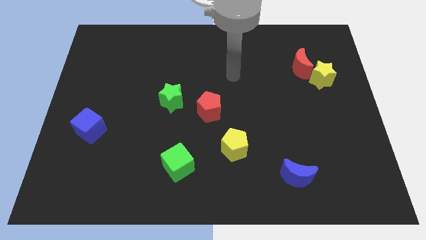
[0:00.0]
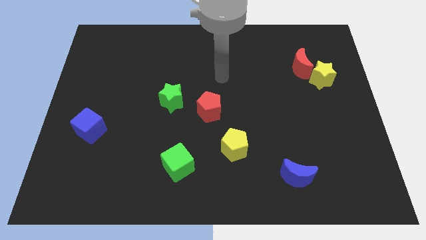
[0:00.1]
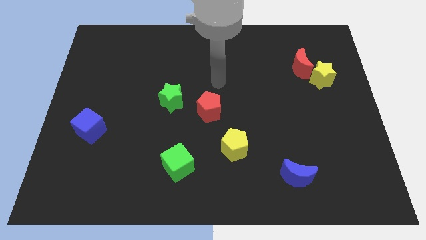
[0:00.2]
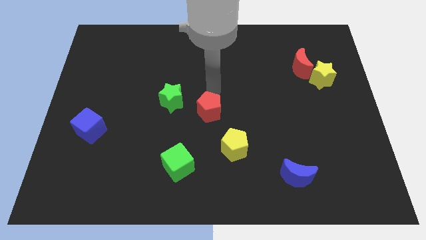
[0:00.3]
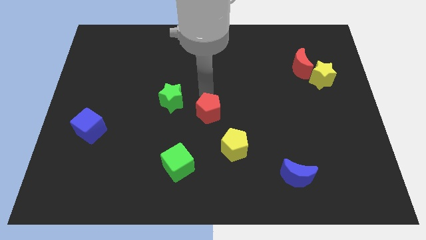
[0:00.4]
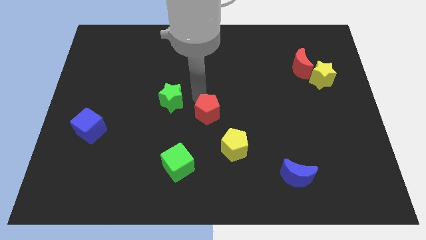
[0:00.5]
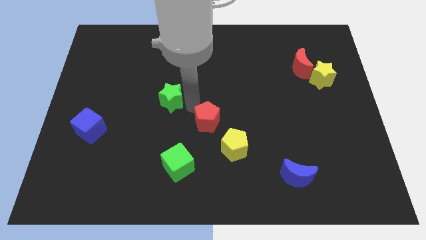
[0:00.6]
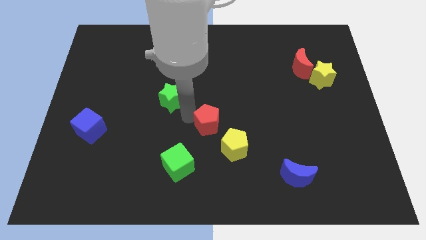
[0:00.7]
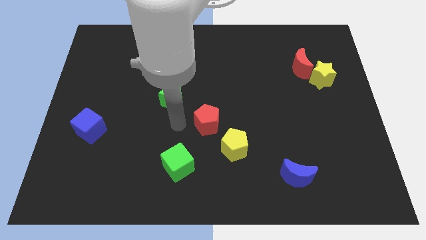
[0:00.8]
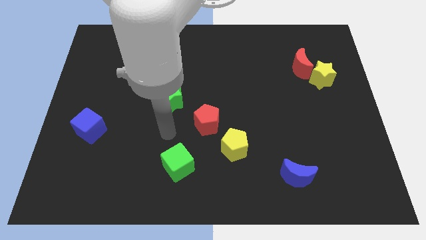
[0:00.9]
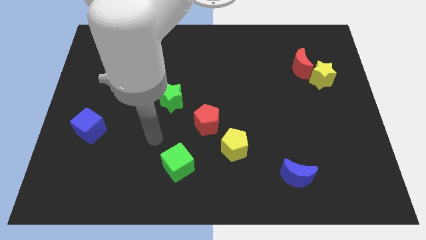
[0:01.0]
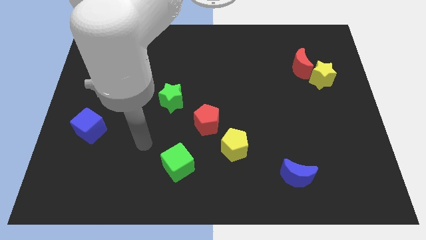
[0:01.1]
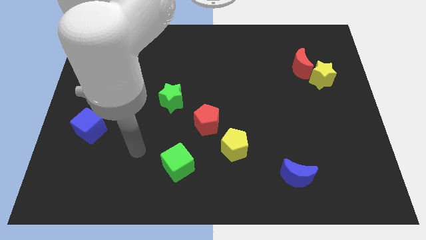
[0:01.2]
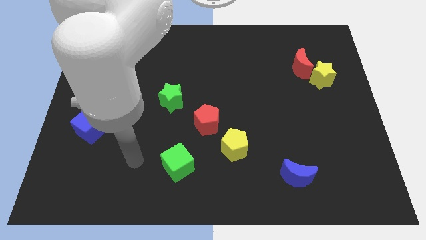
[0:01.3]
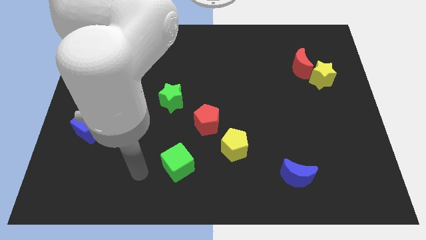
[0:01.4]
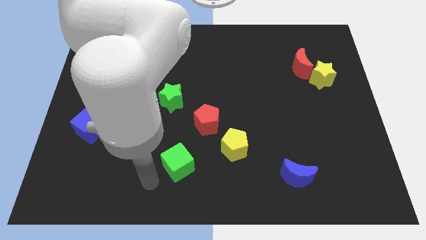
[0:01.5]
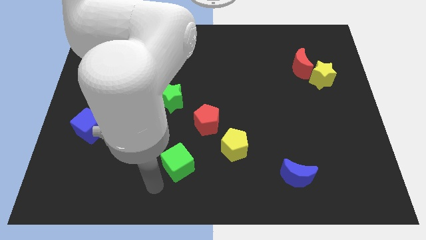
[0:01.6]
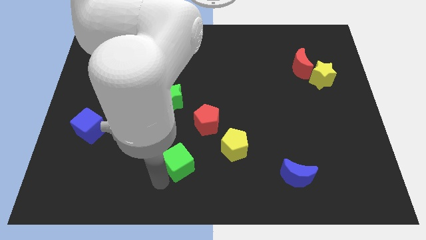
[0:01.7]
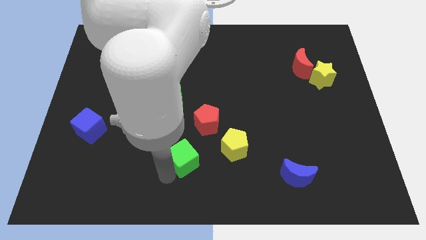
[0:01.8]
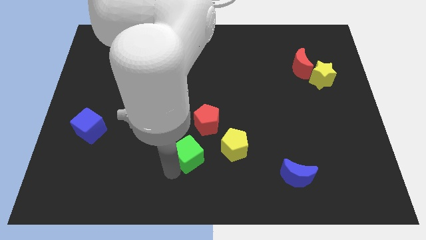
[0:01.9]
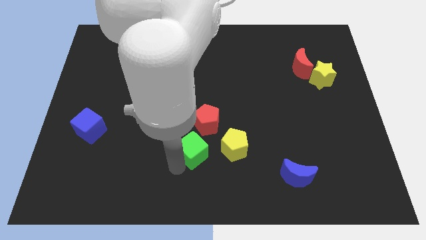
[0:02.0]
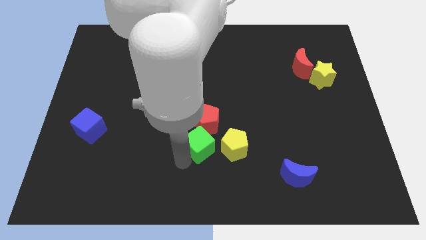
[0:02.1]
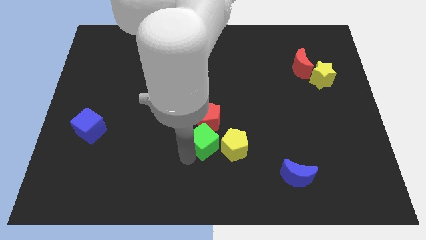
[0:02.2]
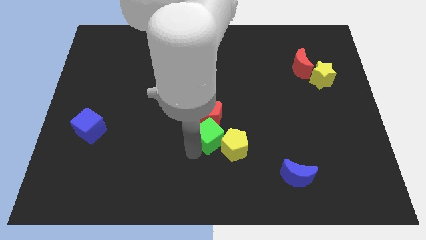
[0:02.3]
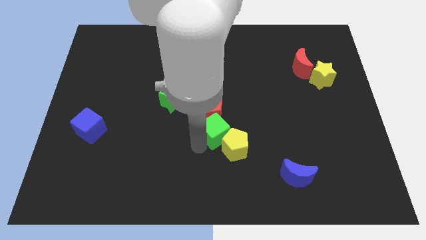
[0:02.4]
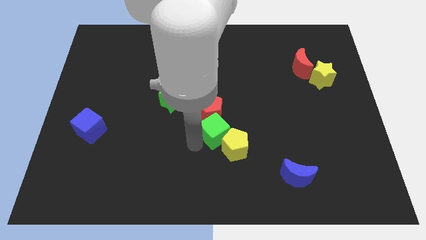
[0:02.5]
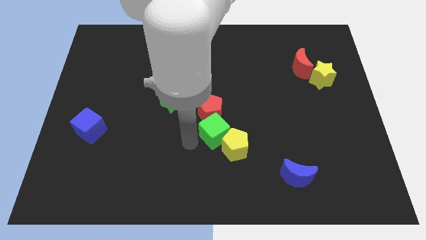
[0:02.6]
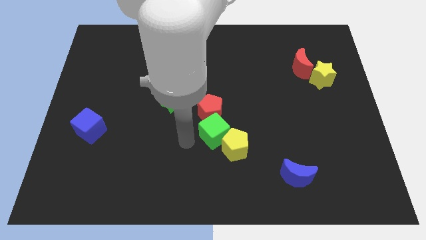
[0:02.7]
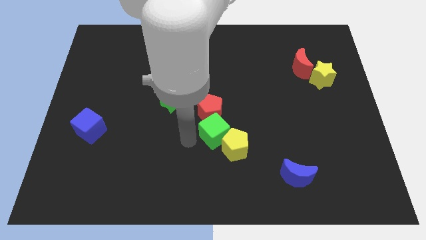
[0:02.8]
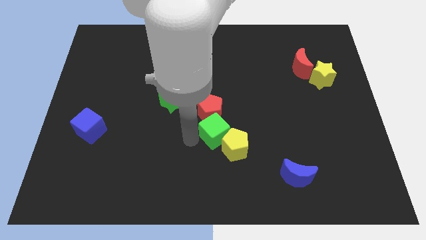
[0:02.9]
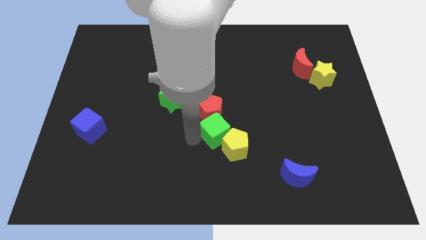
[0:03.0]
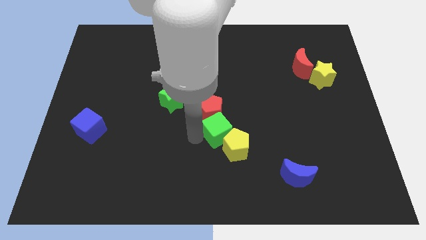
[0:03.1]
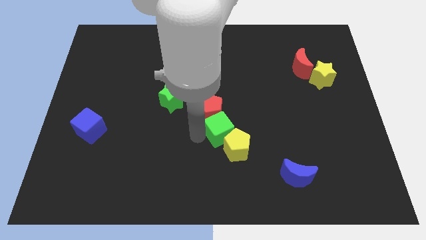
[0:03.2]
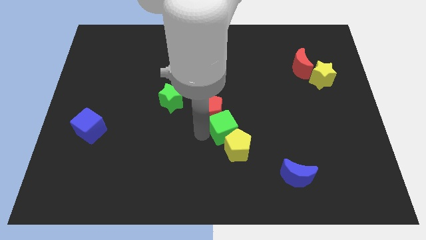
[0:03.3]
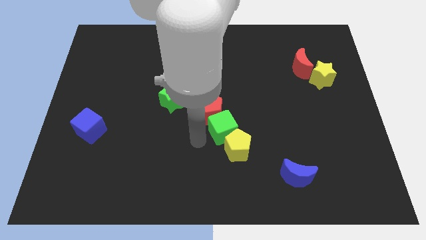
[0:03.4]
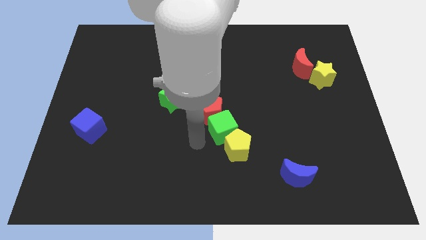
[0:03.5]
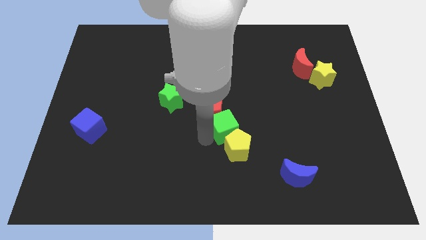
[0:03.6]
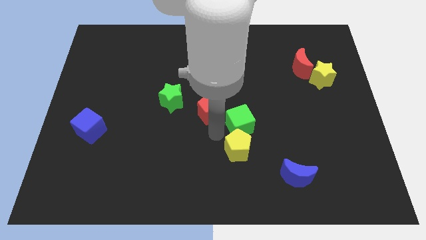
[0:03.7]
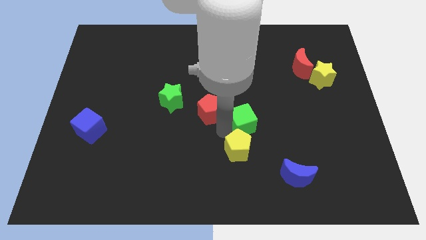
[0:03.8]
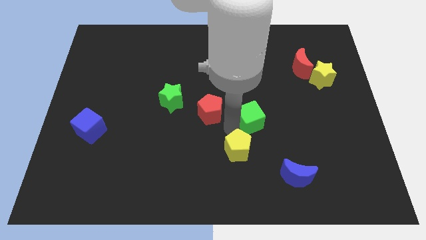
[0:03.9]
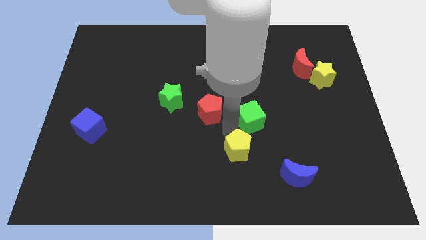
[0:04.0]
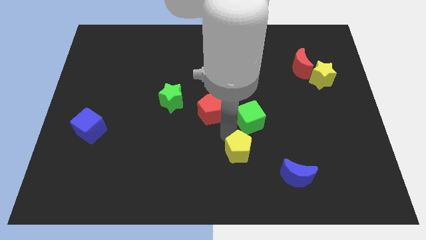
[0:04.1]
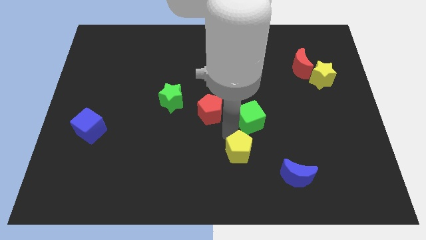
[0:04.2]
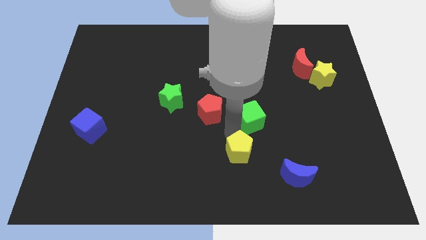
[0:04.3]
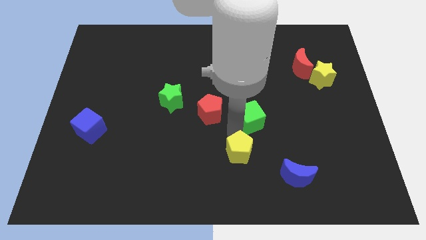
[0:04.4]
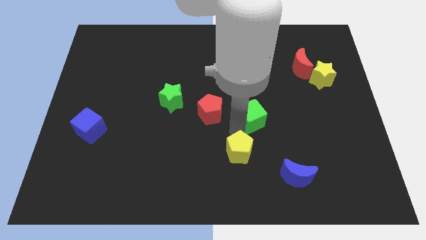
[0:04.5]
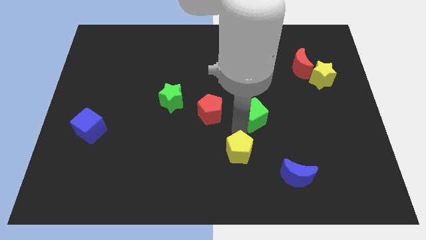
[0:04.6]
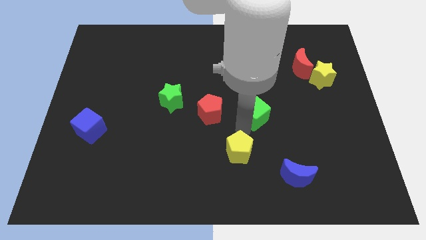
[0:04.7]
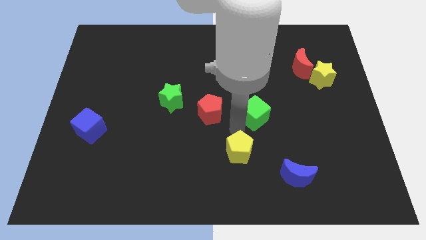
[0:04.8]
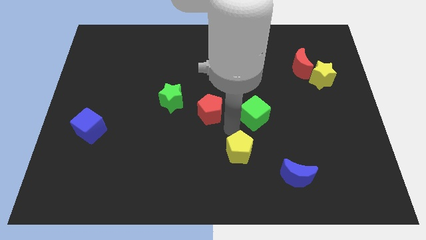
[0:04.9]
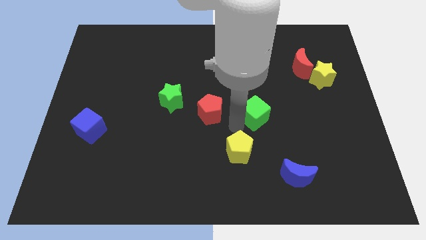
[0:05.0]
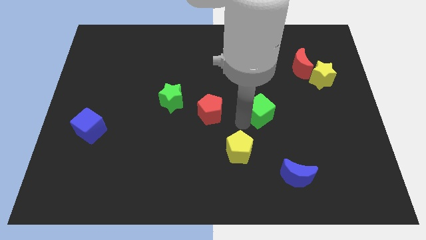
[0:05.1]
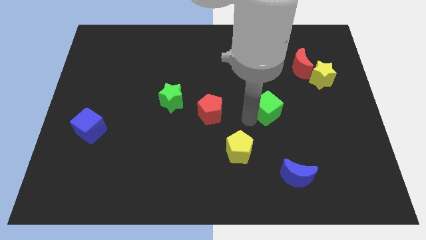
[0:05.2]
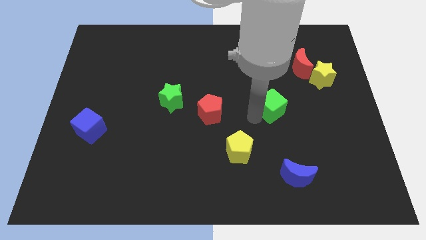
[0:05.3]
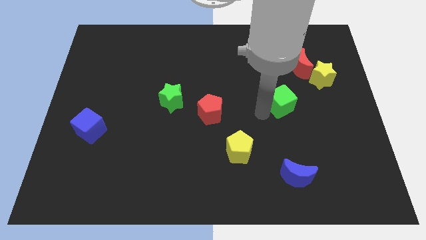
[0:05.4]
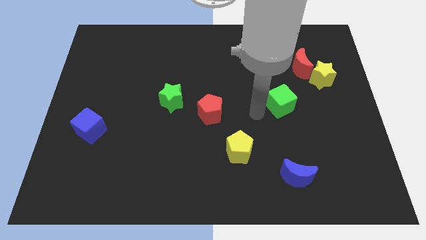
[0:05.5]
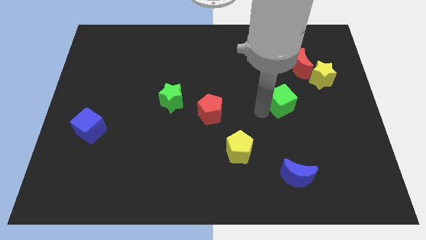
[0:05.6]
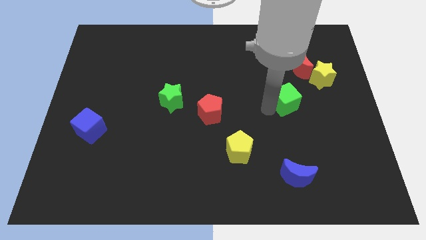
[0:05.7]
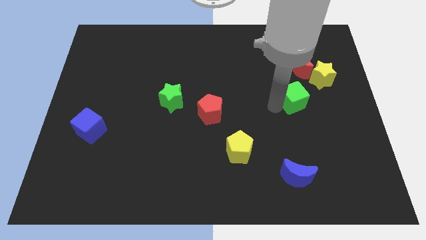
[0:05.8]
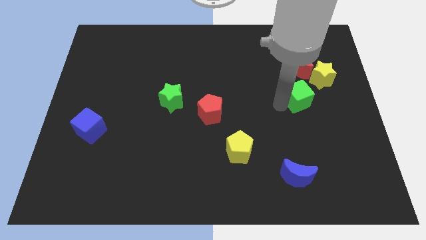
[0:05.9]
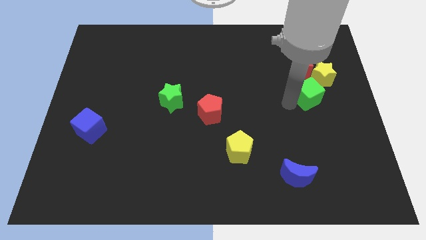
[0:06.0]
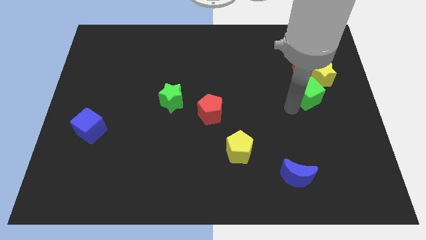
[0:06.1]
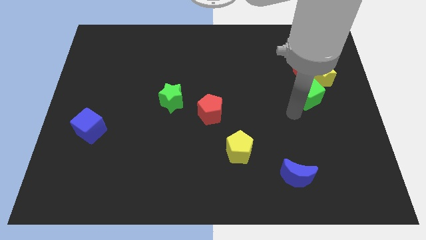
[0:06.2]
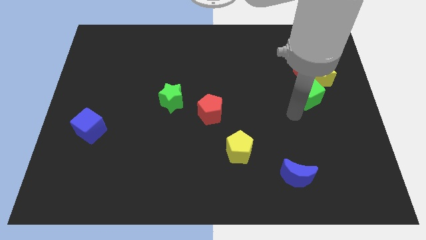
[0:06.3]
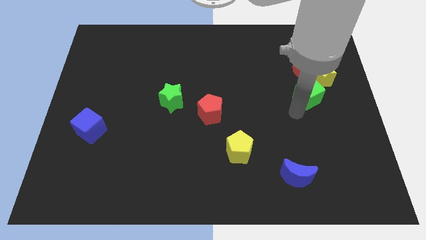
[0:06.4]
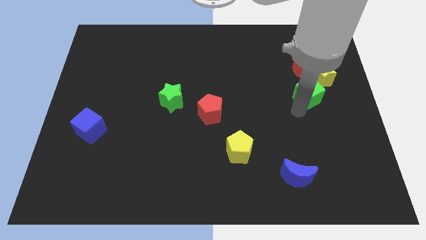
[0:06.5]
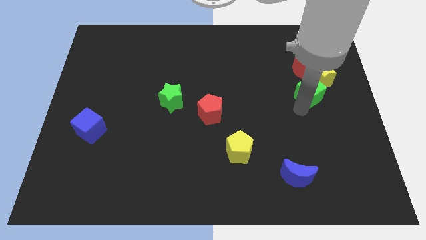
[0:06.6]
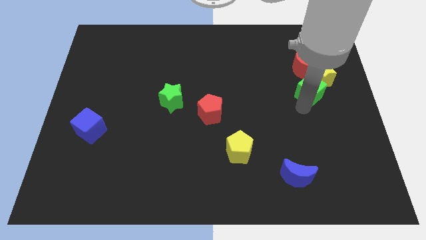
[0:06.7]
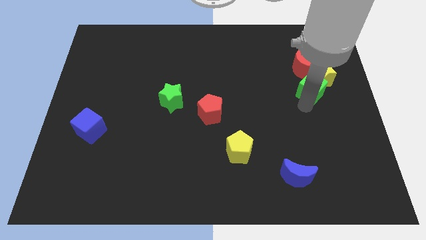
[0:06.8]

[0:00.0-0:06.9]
slide the green cube towards the yellow star

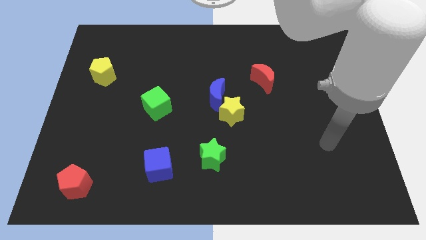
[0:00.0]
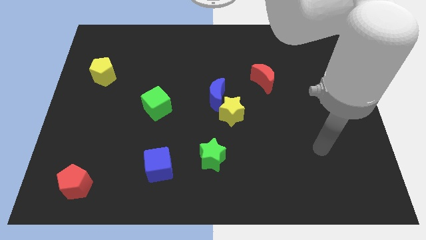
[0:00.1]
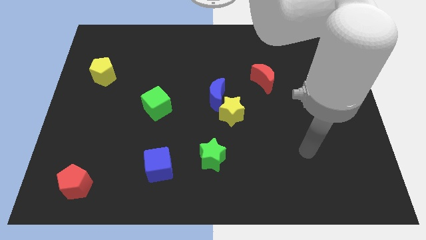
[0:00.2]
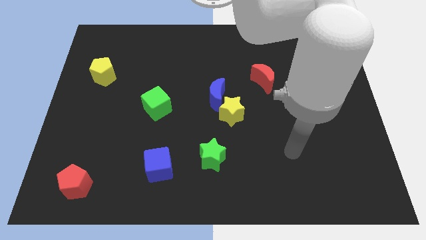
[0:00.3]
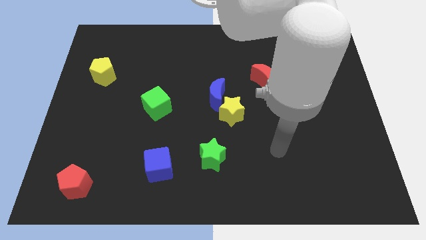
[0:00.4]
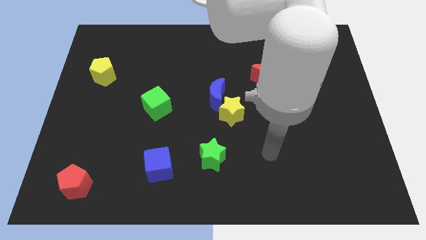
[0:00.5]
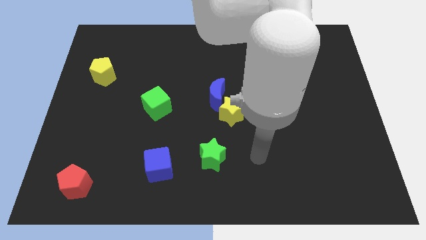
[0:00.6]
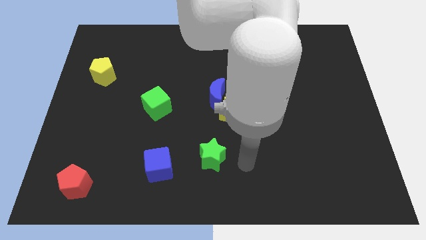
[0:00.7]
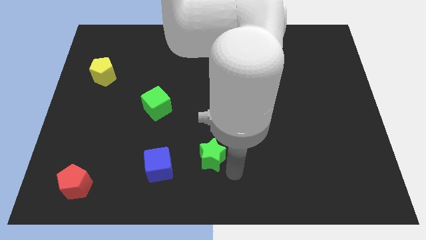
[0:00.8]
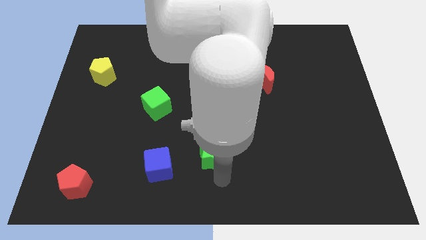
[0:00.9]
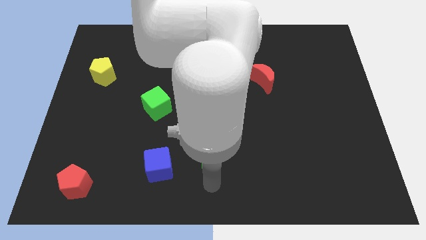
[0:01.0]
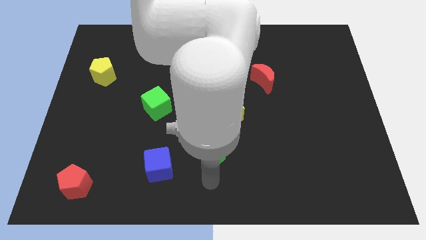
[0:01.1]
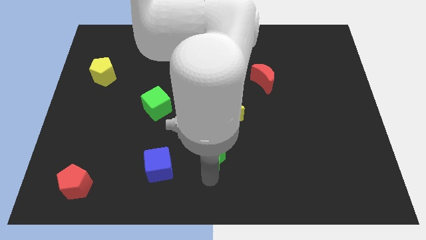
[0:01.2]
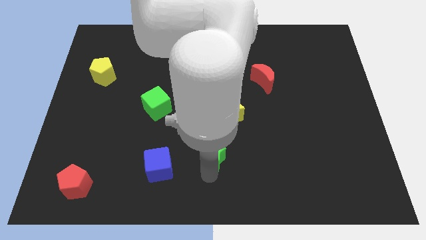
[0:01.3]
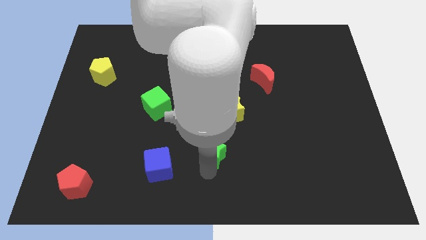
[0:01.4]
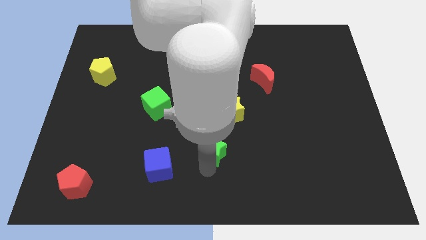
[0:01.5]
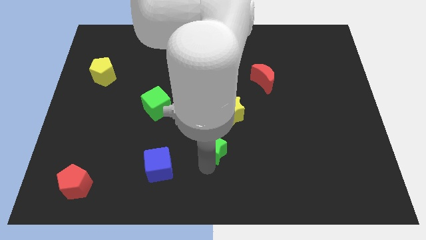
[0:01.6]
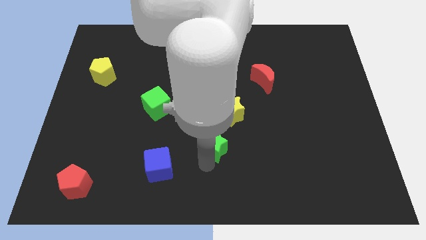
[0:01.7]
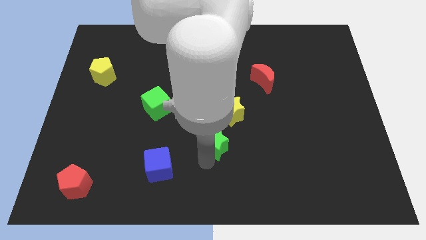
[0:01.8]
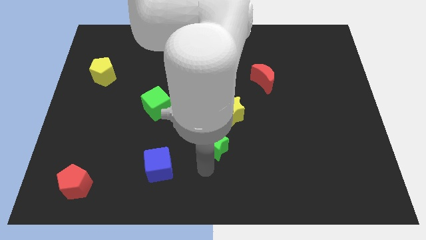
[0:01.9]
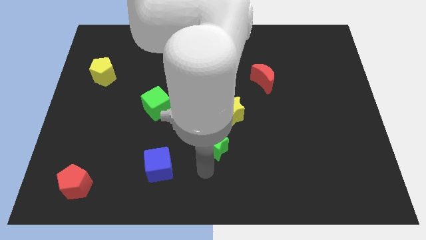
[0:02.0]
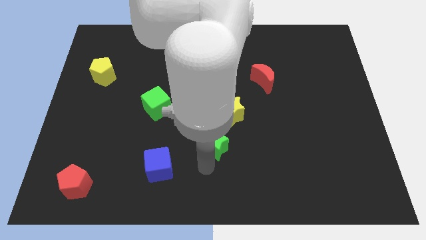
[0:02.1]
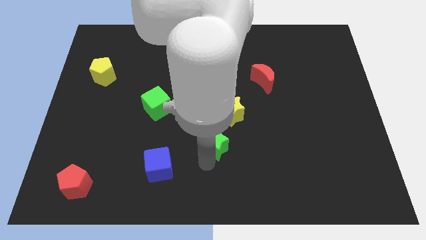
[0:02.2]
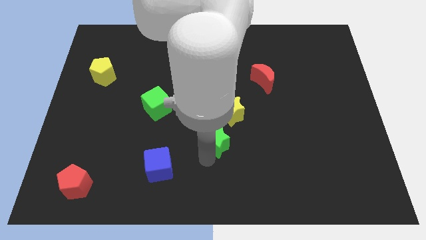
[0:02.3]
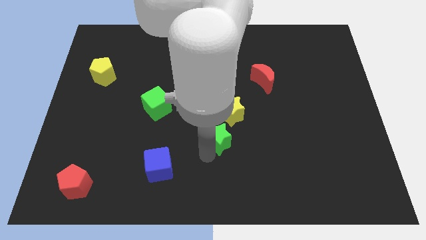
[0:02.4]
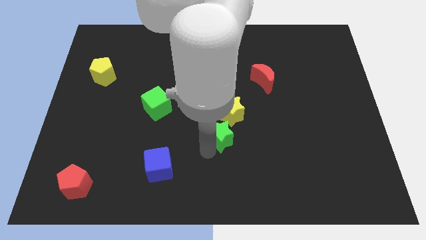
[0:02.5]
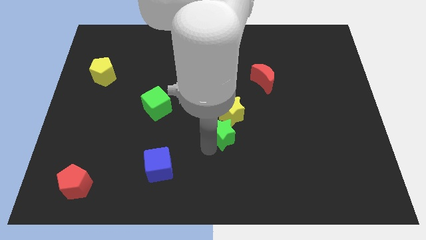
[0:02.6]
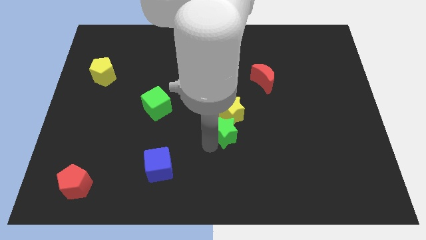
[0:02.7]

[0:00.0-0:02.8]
slide the green star towards the yellow star
